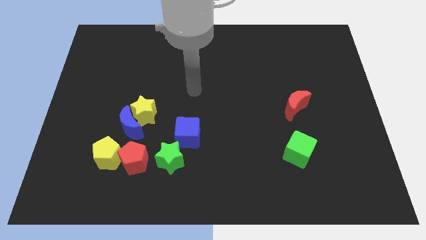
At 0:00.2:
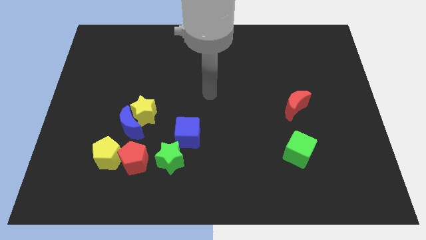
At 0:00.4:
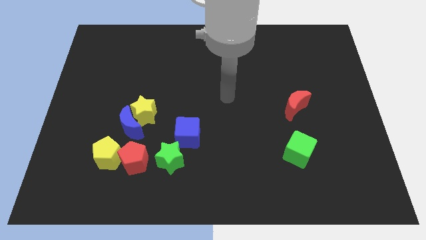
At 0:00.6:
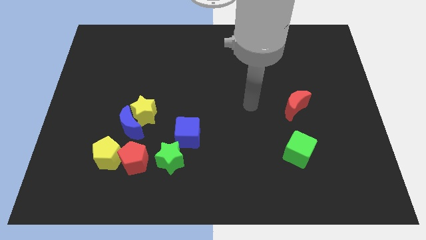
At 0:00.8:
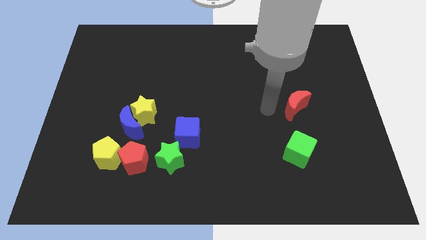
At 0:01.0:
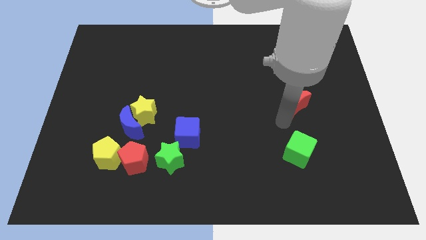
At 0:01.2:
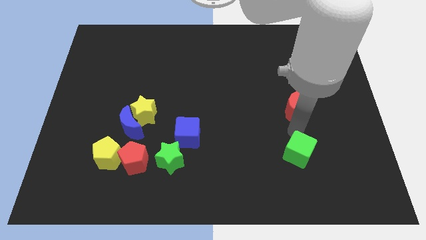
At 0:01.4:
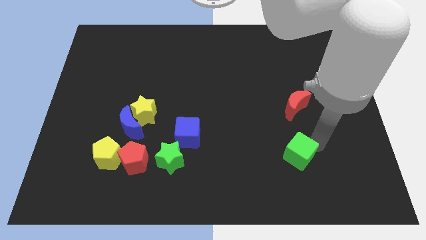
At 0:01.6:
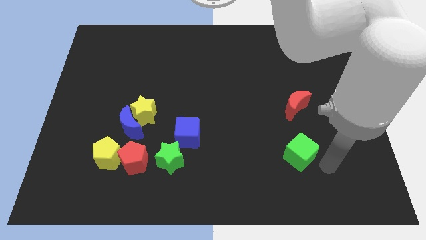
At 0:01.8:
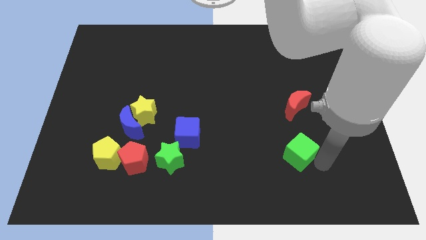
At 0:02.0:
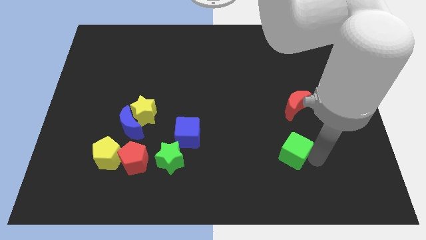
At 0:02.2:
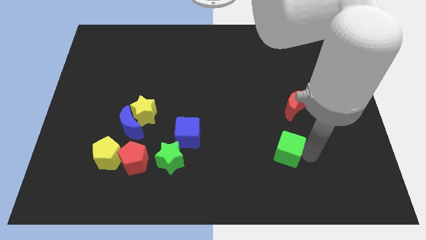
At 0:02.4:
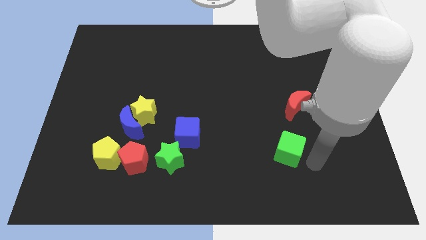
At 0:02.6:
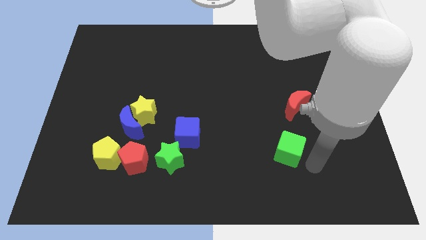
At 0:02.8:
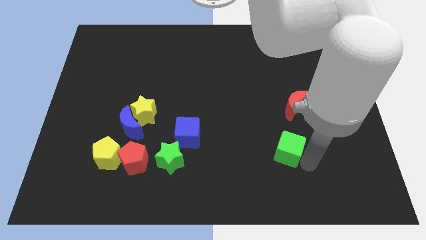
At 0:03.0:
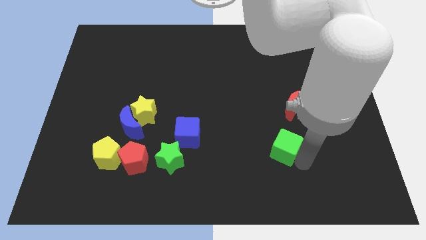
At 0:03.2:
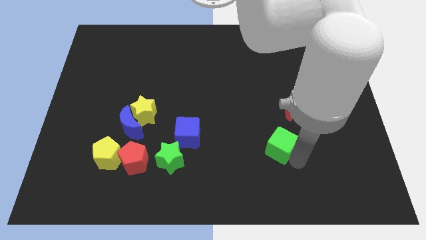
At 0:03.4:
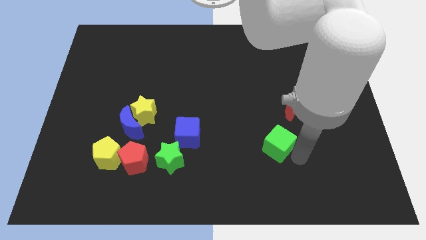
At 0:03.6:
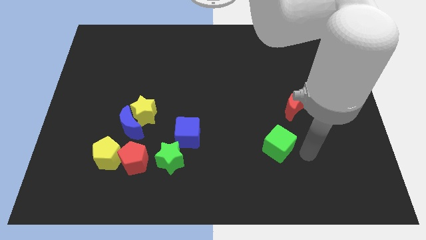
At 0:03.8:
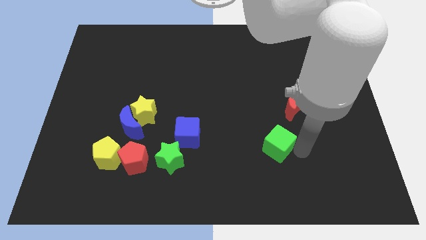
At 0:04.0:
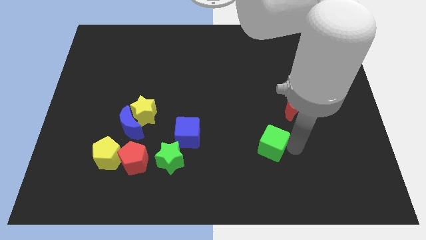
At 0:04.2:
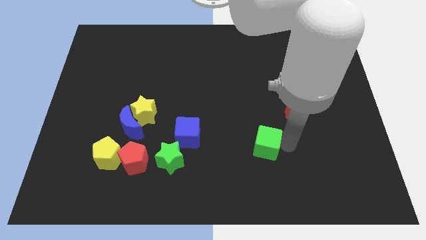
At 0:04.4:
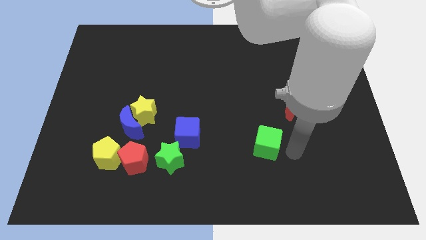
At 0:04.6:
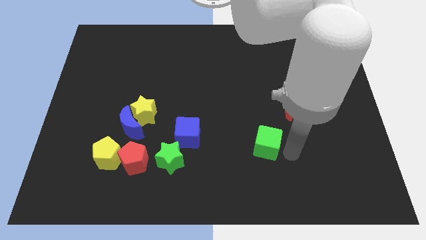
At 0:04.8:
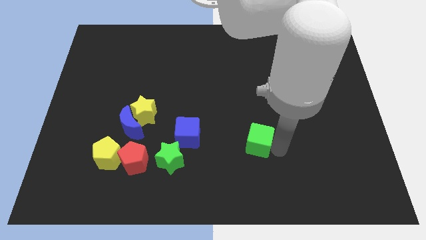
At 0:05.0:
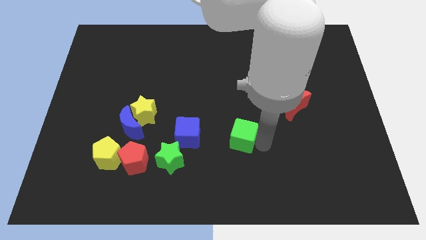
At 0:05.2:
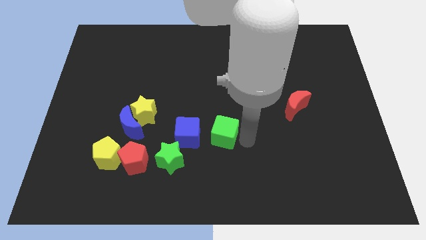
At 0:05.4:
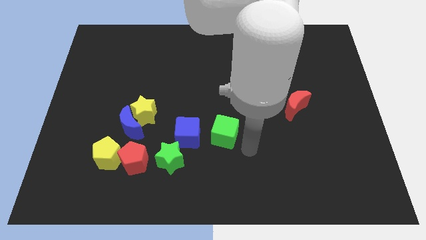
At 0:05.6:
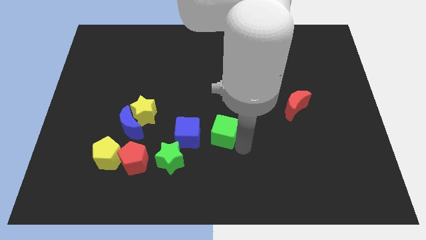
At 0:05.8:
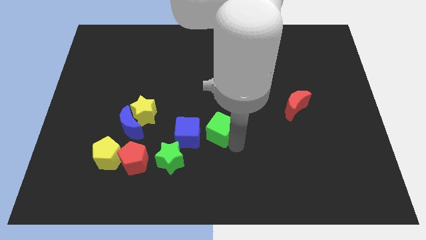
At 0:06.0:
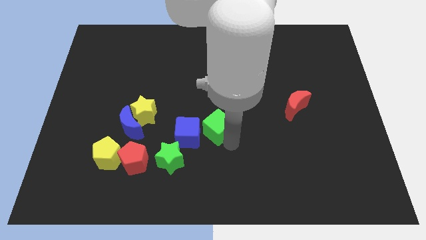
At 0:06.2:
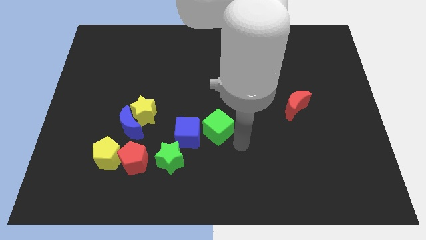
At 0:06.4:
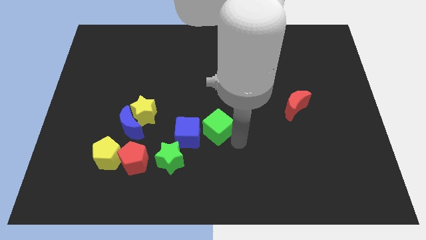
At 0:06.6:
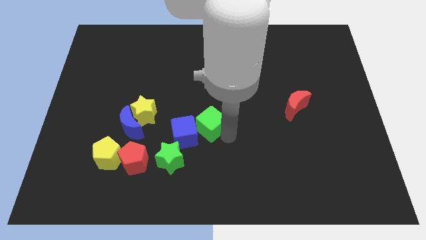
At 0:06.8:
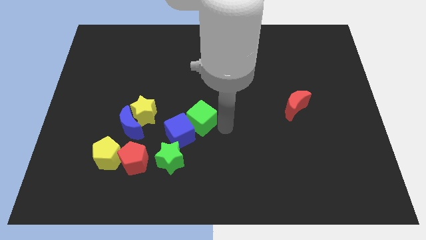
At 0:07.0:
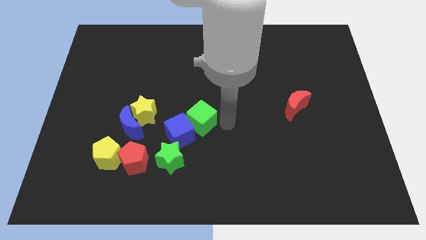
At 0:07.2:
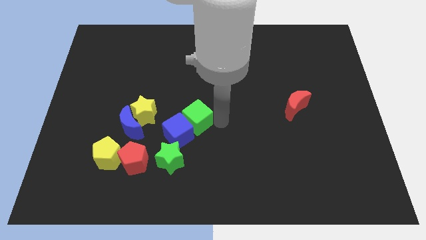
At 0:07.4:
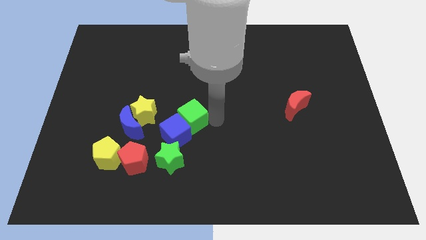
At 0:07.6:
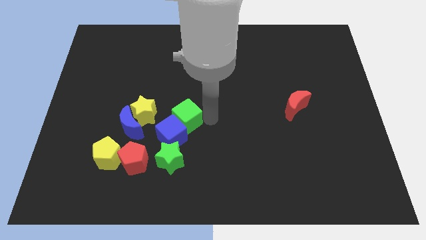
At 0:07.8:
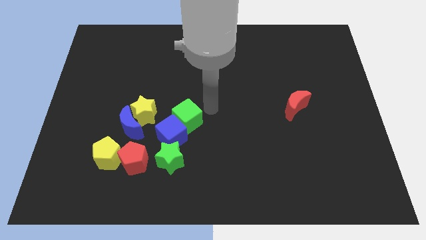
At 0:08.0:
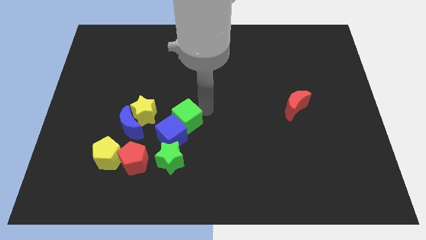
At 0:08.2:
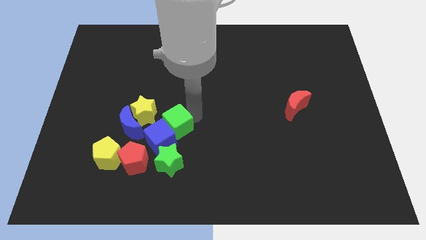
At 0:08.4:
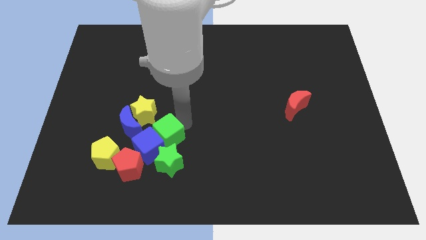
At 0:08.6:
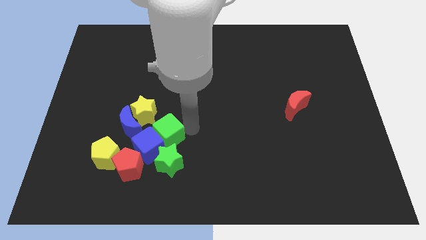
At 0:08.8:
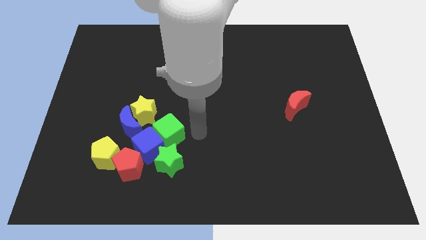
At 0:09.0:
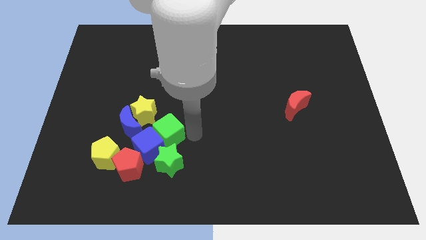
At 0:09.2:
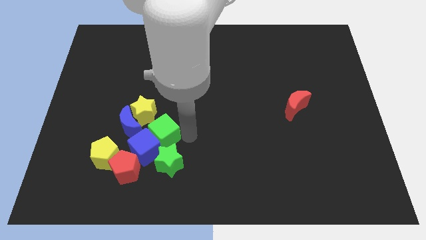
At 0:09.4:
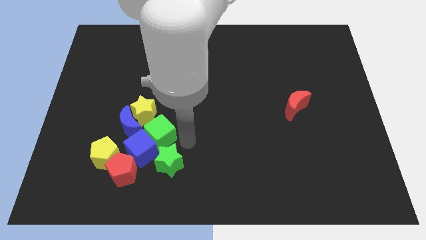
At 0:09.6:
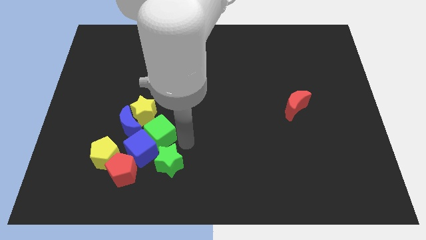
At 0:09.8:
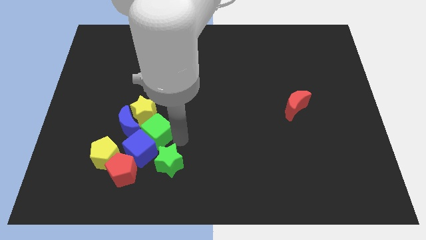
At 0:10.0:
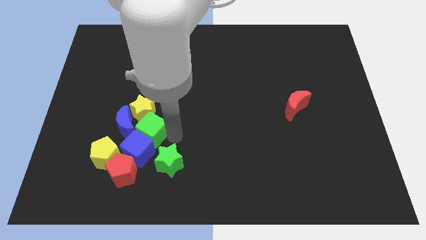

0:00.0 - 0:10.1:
slide the green cube towards the blue moon

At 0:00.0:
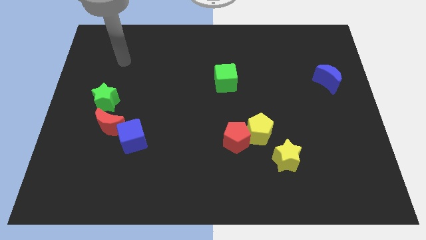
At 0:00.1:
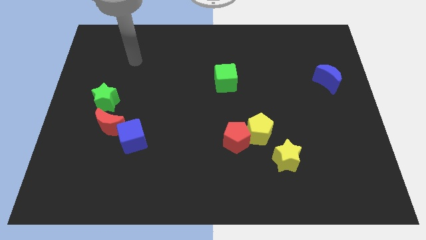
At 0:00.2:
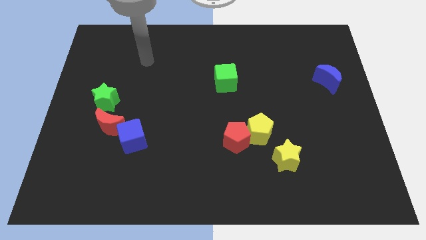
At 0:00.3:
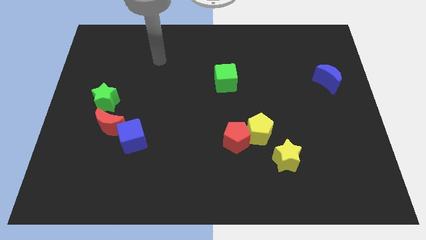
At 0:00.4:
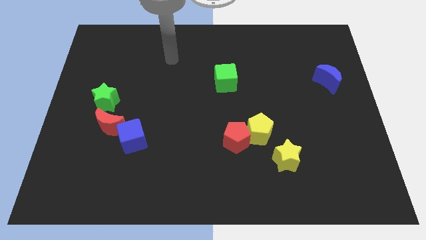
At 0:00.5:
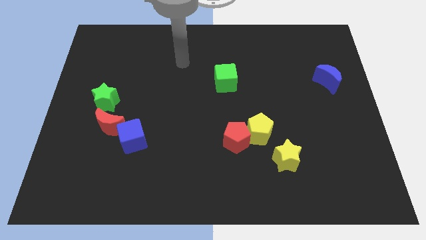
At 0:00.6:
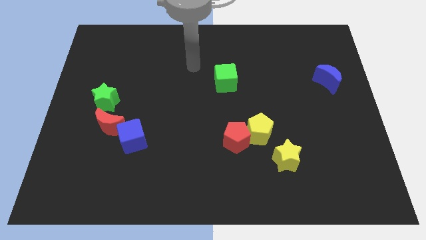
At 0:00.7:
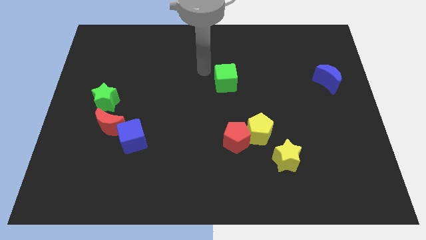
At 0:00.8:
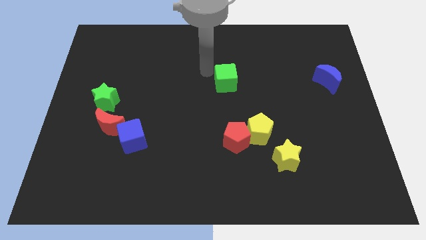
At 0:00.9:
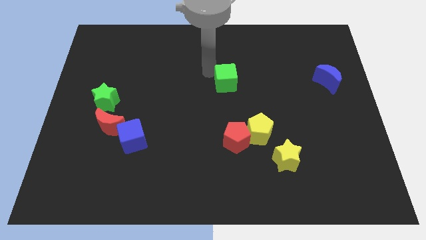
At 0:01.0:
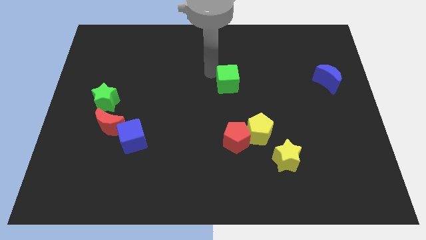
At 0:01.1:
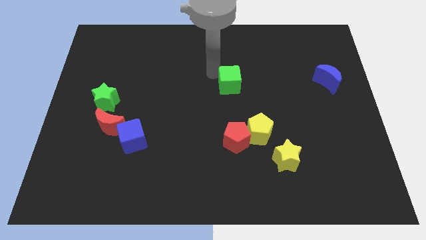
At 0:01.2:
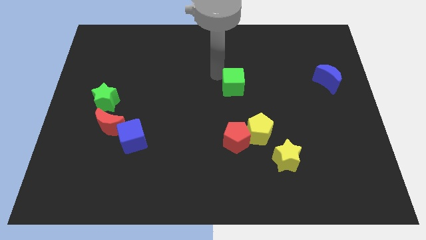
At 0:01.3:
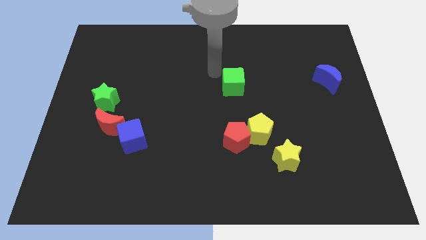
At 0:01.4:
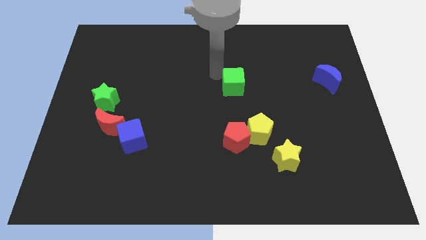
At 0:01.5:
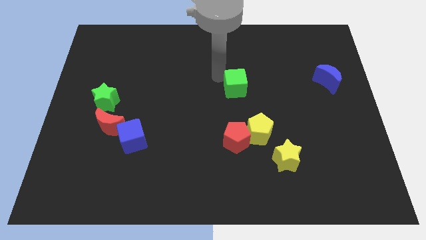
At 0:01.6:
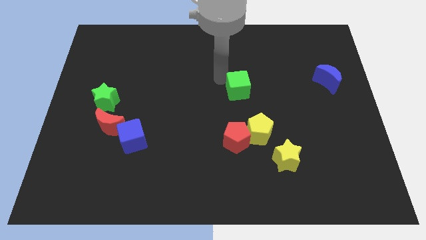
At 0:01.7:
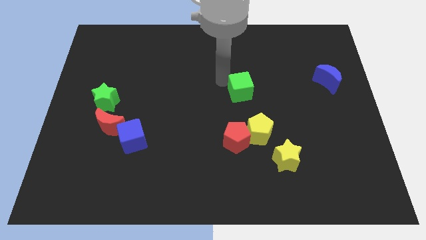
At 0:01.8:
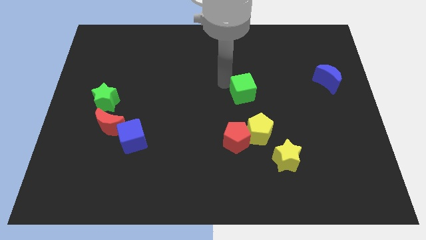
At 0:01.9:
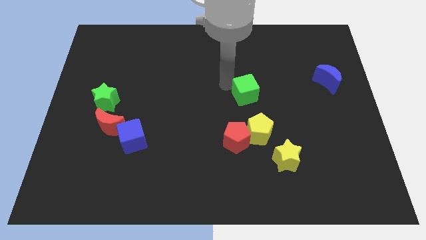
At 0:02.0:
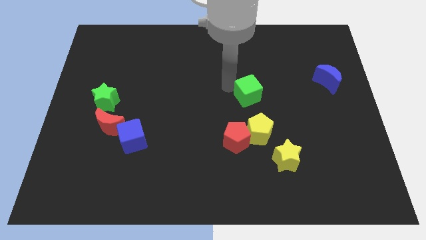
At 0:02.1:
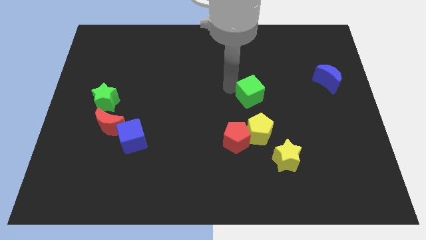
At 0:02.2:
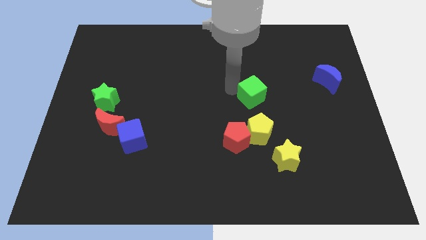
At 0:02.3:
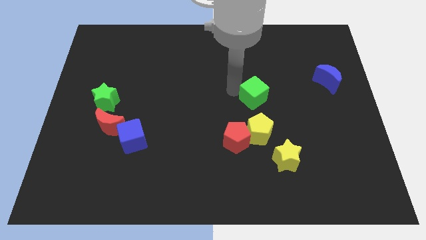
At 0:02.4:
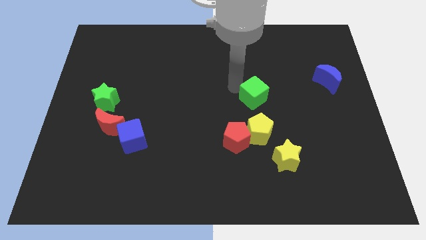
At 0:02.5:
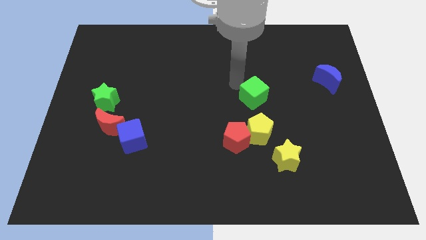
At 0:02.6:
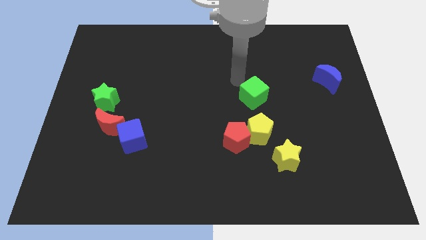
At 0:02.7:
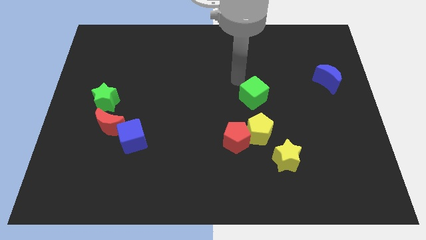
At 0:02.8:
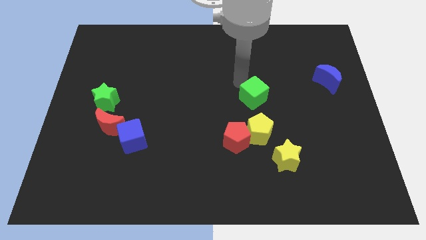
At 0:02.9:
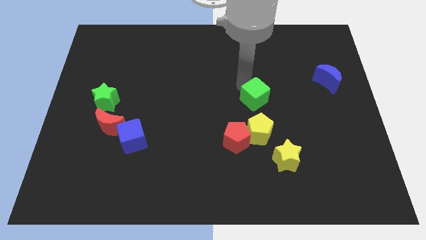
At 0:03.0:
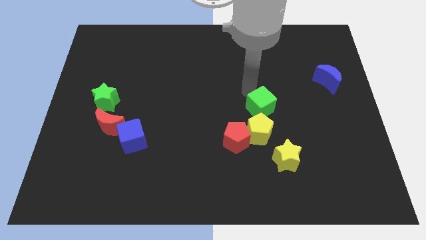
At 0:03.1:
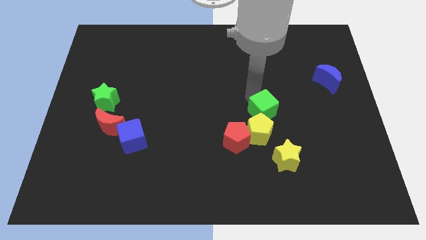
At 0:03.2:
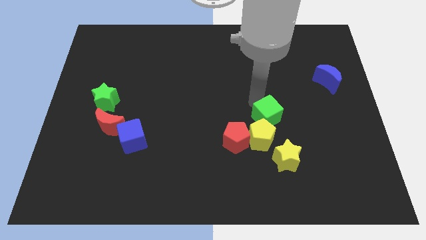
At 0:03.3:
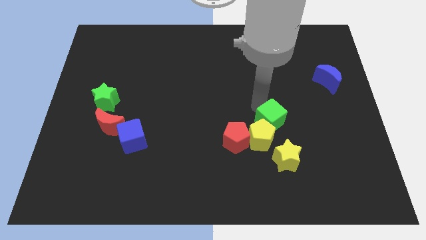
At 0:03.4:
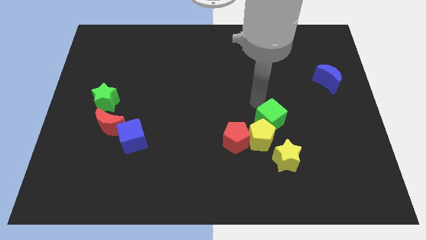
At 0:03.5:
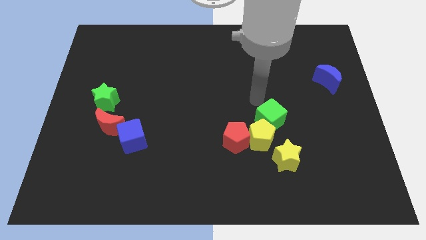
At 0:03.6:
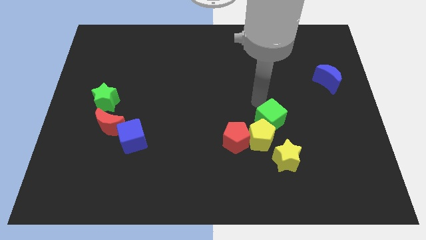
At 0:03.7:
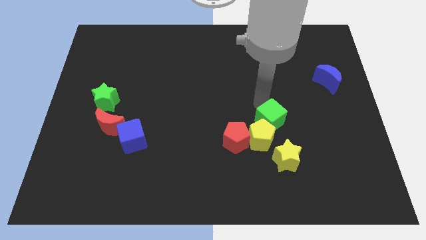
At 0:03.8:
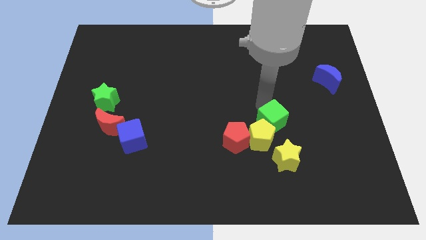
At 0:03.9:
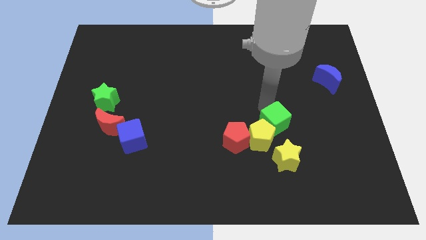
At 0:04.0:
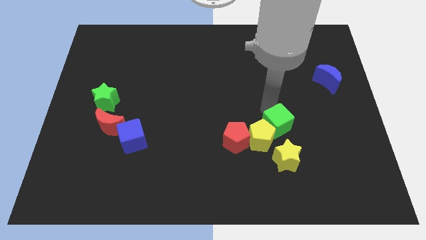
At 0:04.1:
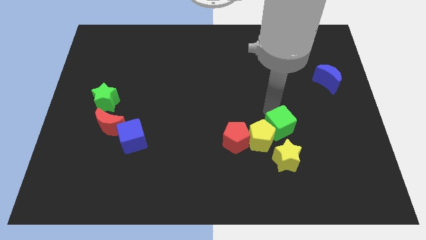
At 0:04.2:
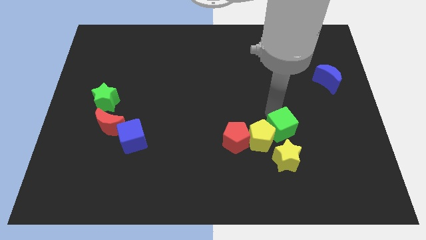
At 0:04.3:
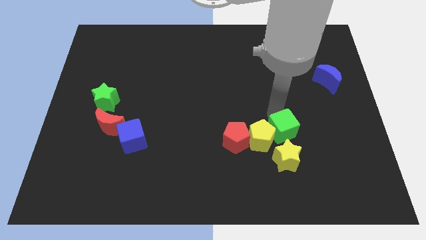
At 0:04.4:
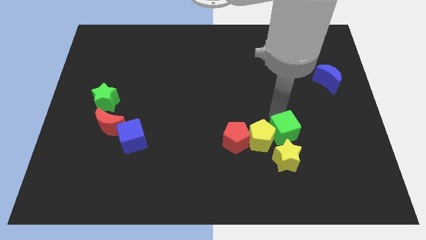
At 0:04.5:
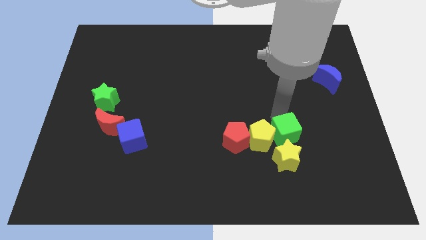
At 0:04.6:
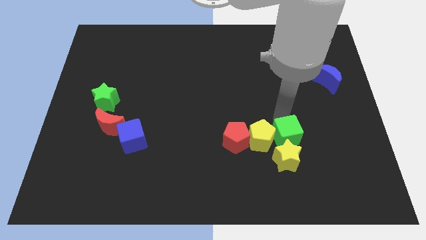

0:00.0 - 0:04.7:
put the green cube towards the yellow star
